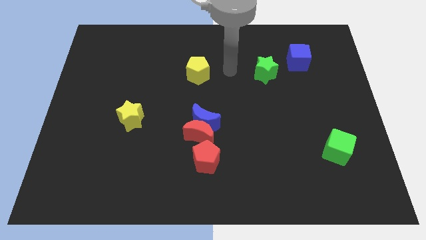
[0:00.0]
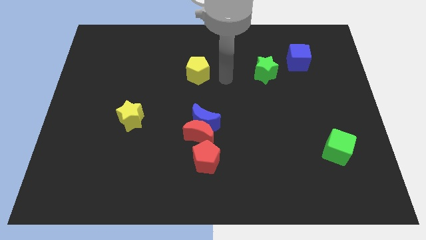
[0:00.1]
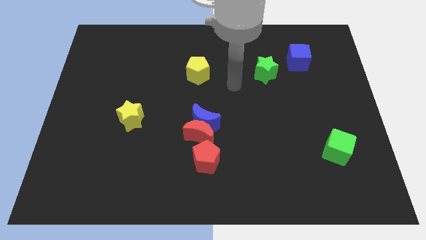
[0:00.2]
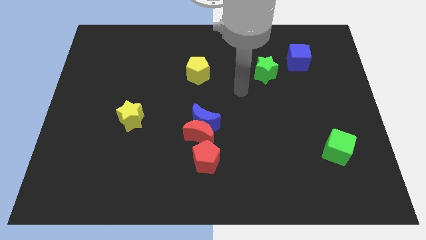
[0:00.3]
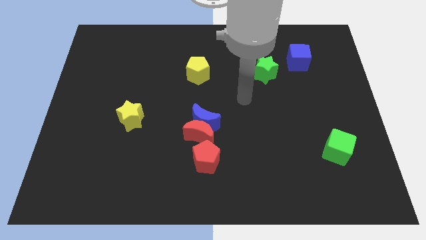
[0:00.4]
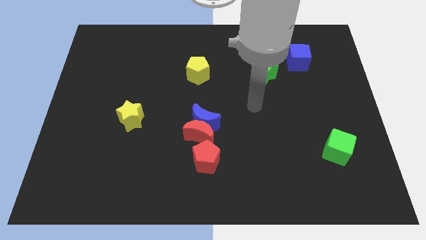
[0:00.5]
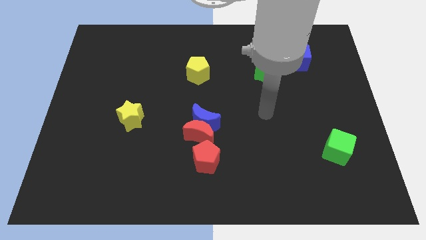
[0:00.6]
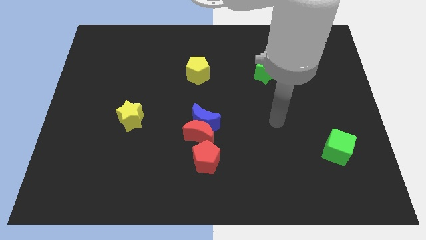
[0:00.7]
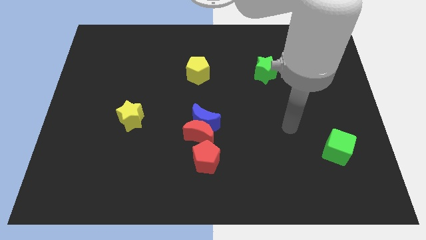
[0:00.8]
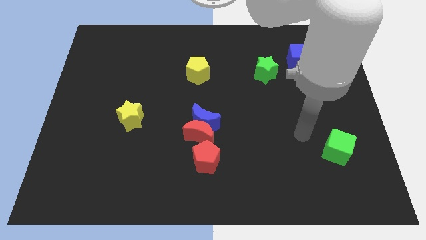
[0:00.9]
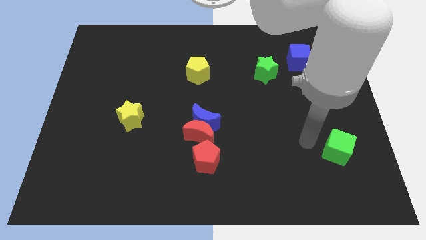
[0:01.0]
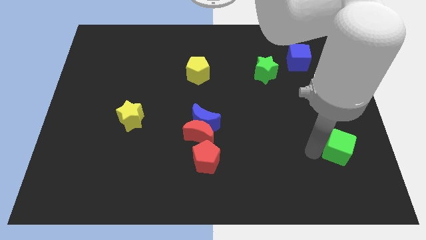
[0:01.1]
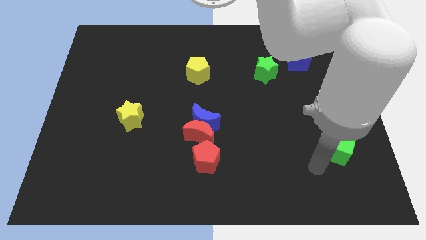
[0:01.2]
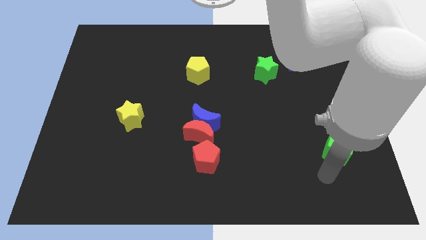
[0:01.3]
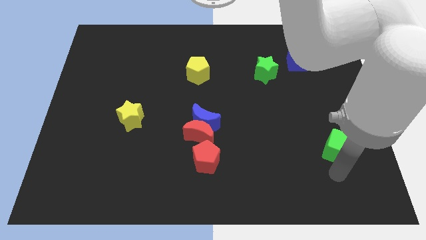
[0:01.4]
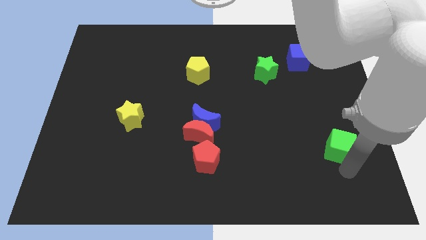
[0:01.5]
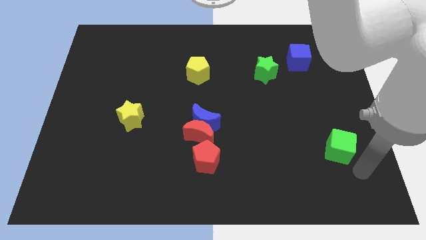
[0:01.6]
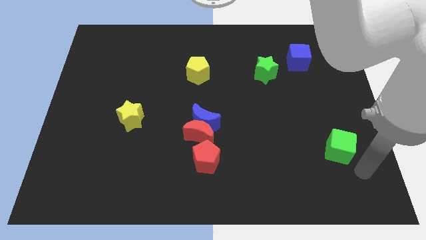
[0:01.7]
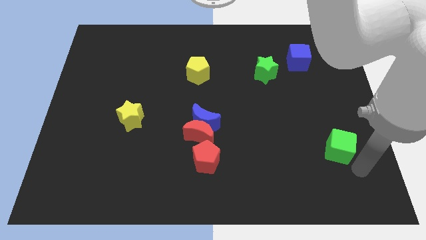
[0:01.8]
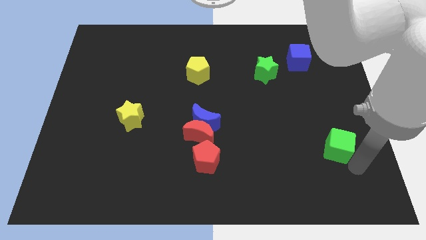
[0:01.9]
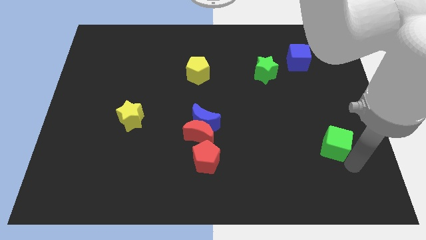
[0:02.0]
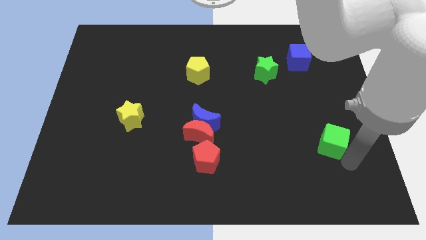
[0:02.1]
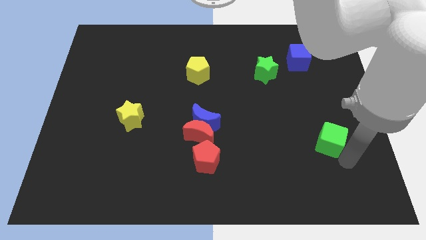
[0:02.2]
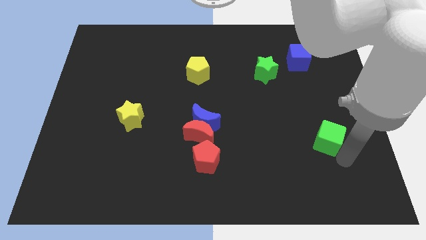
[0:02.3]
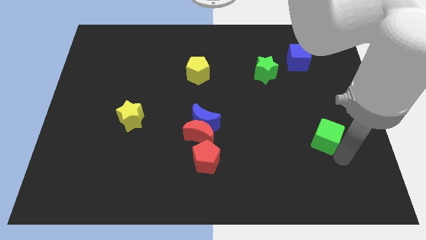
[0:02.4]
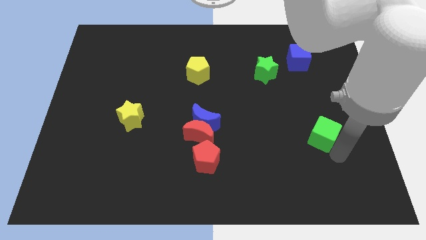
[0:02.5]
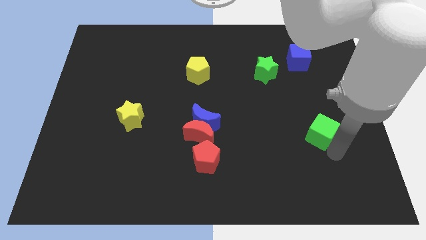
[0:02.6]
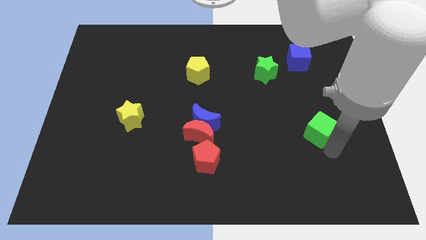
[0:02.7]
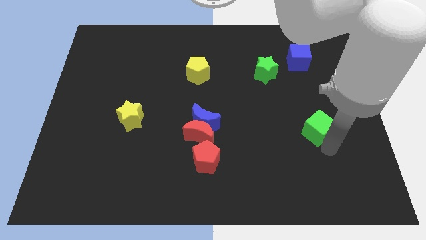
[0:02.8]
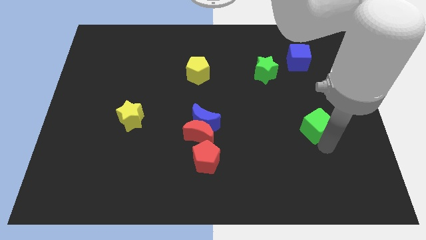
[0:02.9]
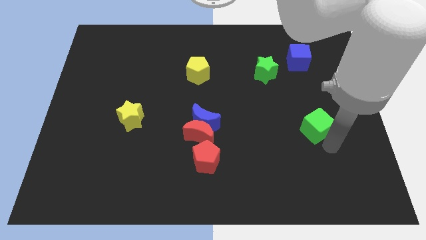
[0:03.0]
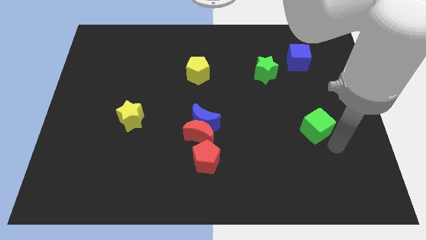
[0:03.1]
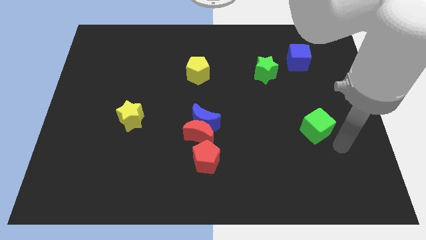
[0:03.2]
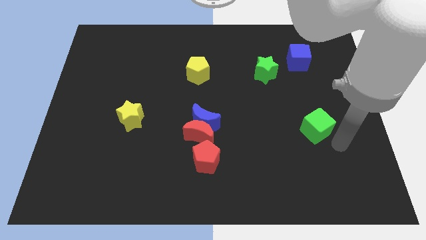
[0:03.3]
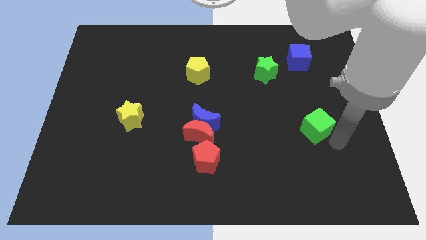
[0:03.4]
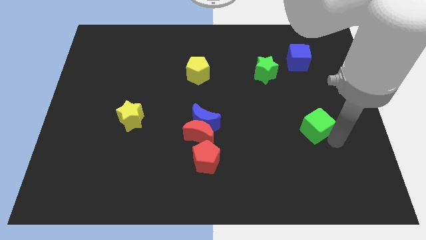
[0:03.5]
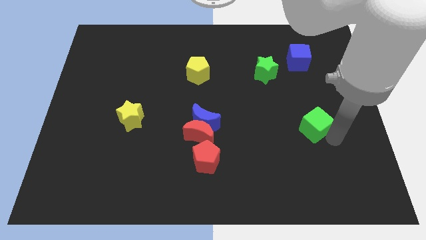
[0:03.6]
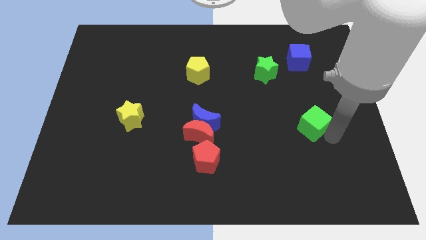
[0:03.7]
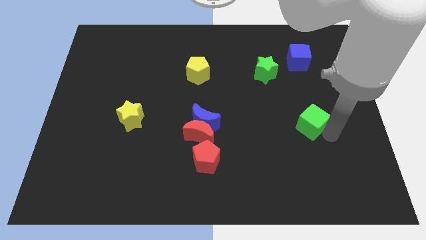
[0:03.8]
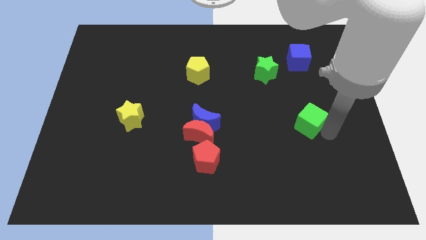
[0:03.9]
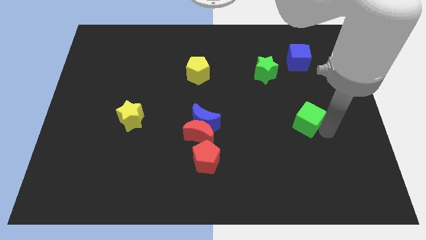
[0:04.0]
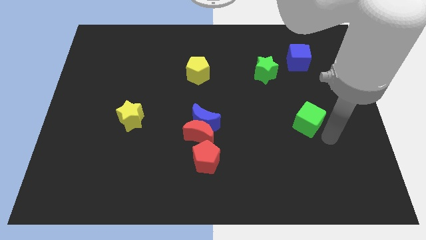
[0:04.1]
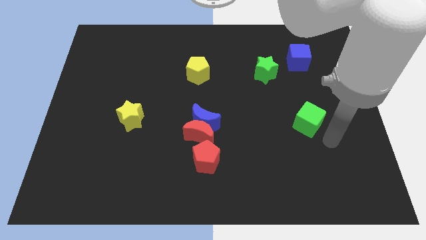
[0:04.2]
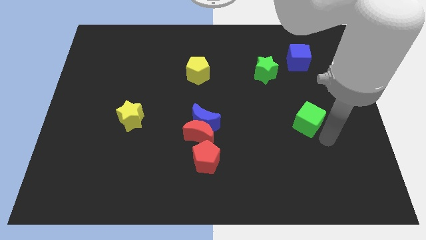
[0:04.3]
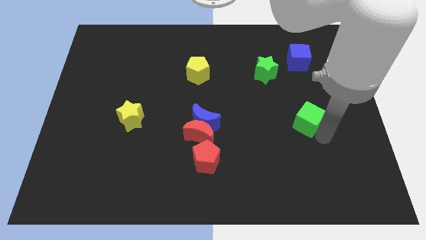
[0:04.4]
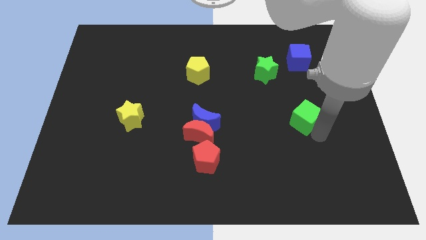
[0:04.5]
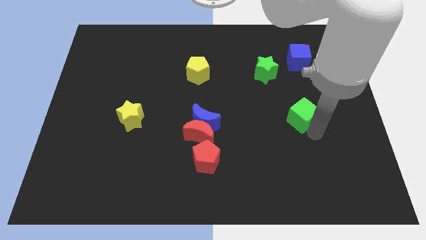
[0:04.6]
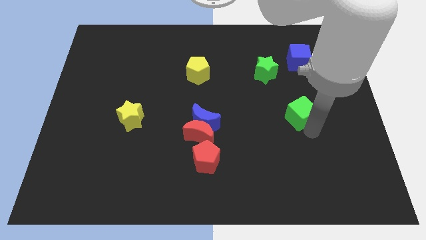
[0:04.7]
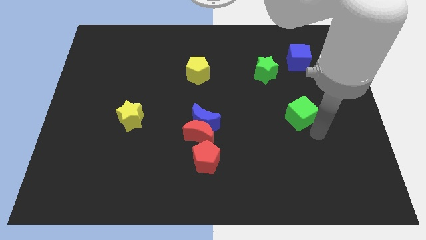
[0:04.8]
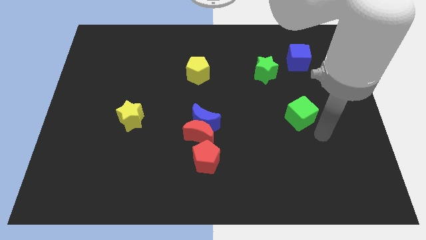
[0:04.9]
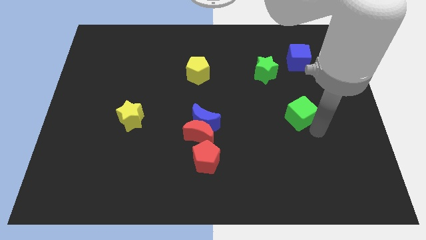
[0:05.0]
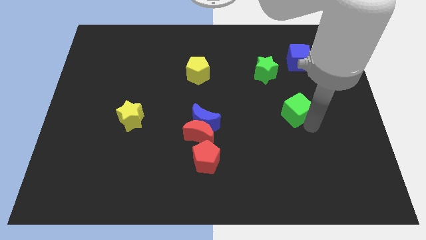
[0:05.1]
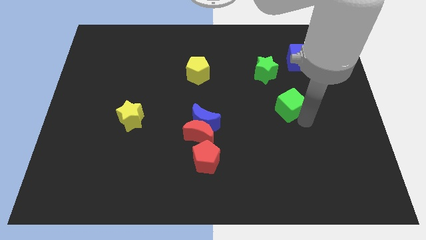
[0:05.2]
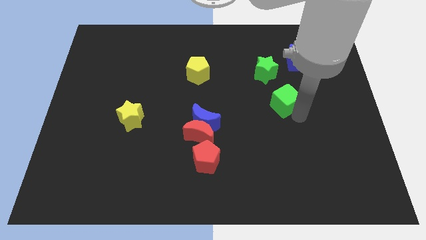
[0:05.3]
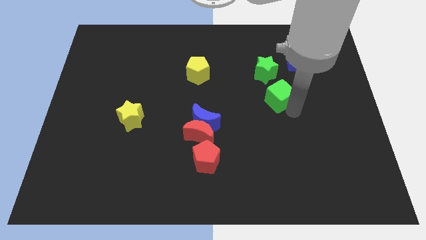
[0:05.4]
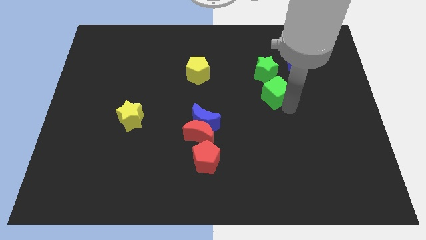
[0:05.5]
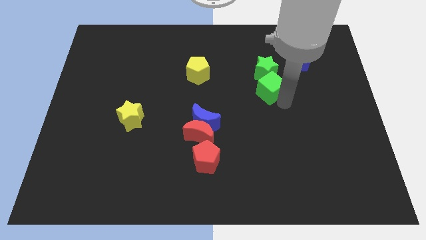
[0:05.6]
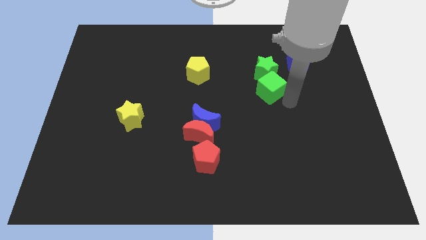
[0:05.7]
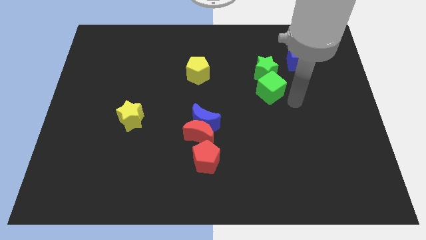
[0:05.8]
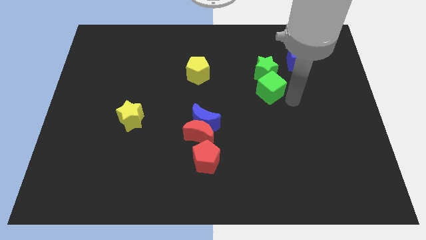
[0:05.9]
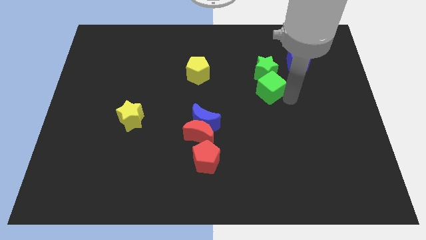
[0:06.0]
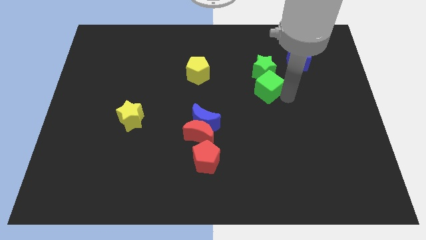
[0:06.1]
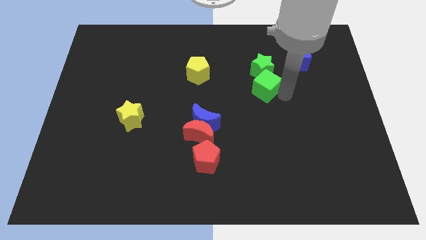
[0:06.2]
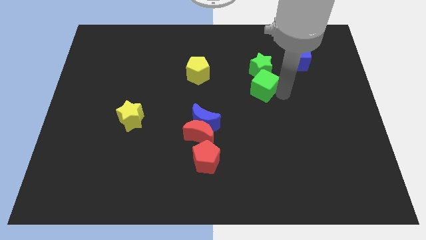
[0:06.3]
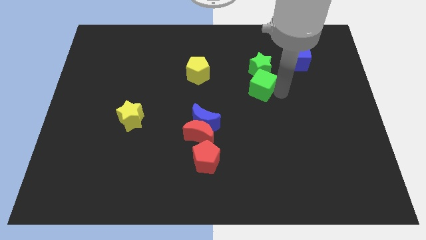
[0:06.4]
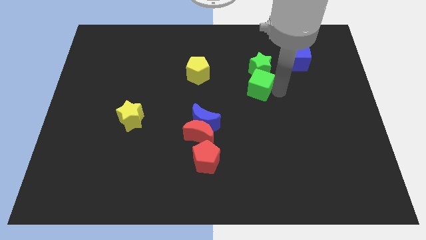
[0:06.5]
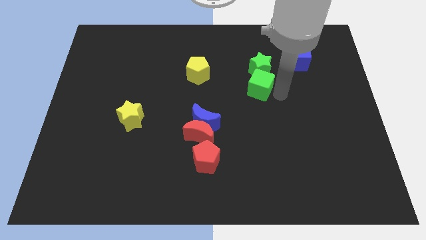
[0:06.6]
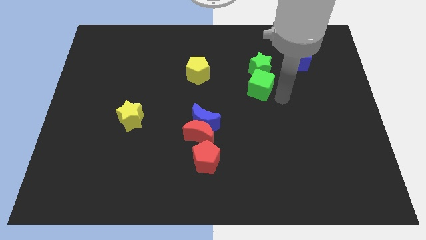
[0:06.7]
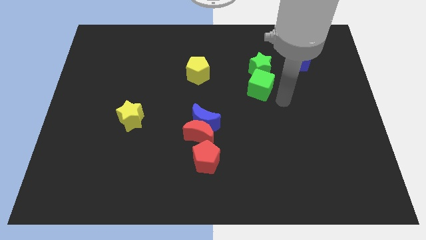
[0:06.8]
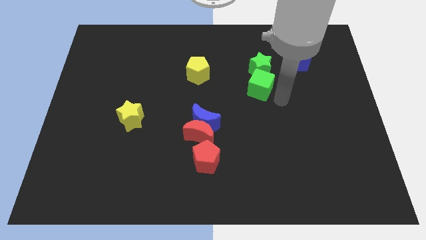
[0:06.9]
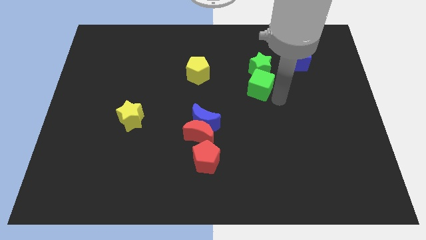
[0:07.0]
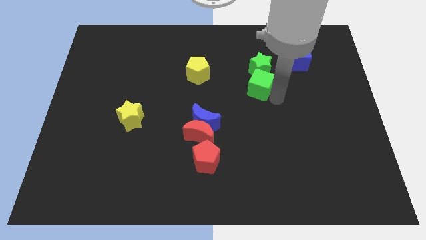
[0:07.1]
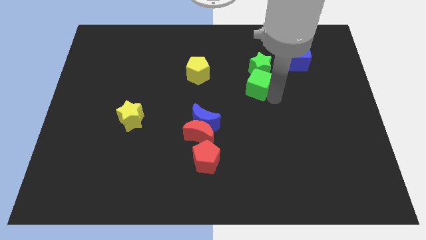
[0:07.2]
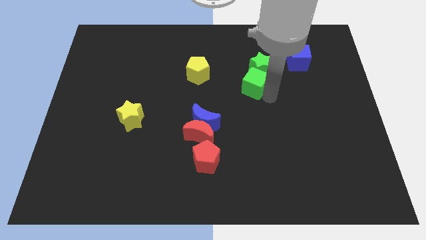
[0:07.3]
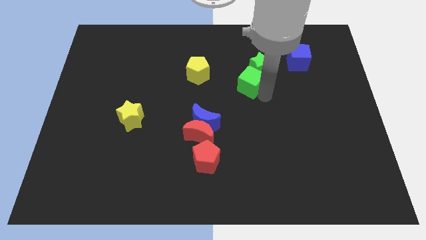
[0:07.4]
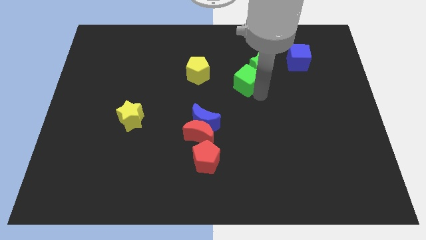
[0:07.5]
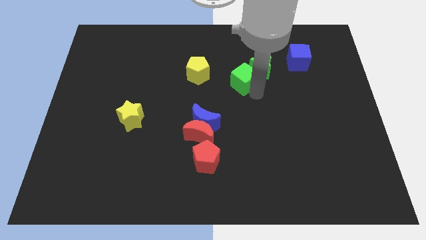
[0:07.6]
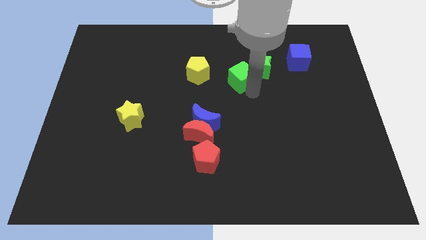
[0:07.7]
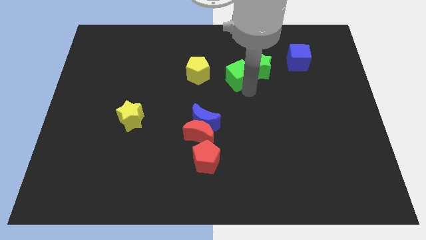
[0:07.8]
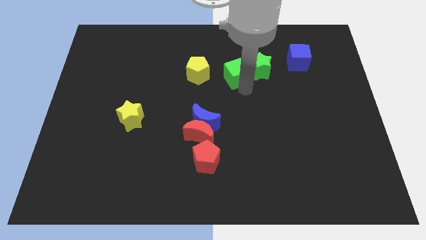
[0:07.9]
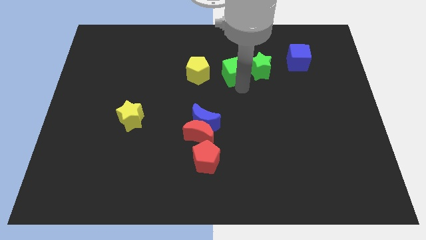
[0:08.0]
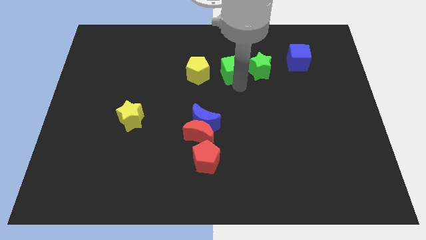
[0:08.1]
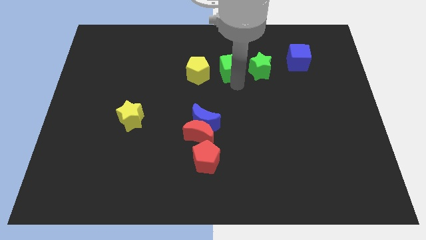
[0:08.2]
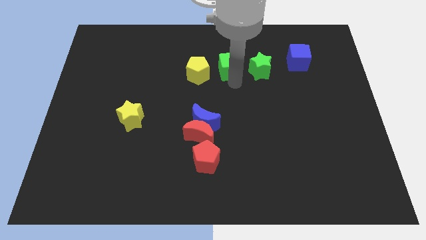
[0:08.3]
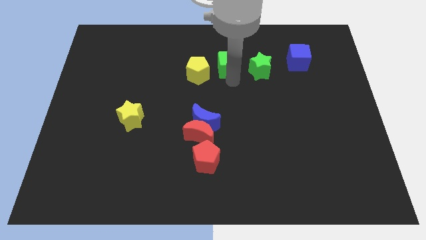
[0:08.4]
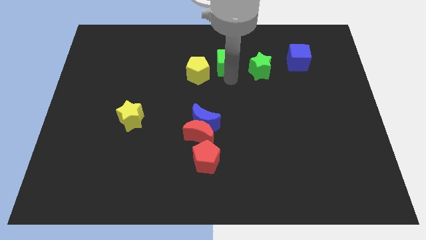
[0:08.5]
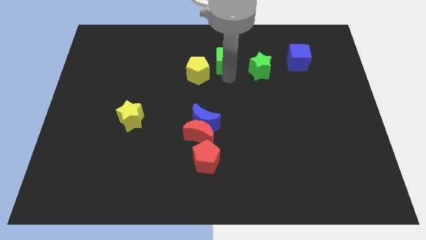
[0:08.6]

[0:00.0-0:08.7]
push the green cube to the top left side of the green star
